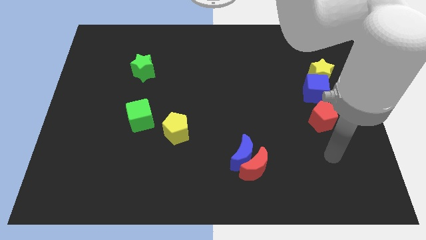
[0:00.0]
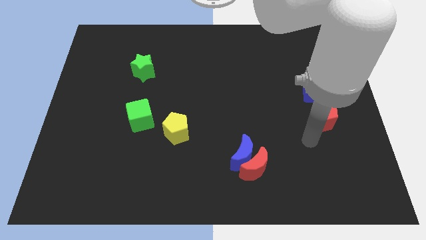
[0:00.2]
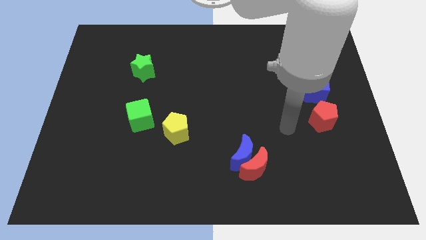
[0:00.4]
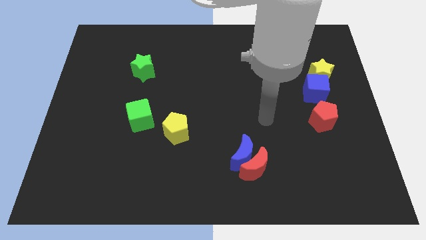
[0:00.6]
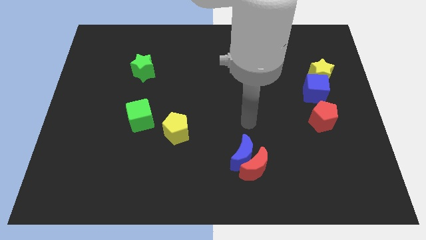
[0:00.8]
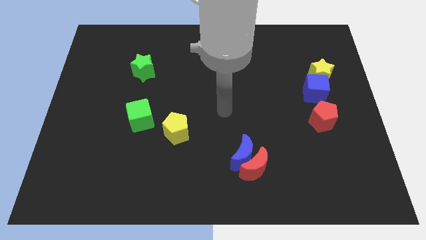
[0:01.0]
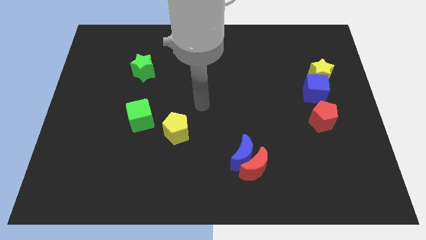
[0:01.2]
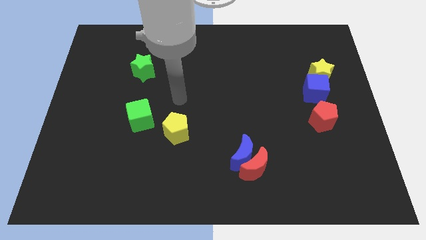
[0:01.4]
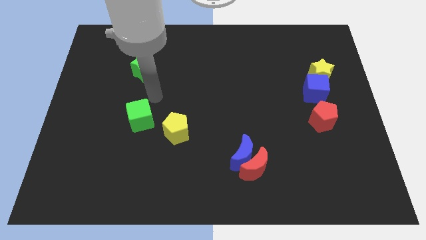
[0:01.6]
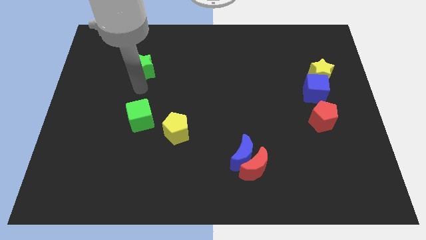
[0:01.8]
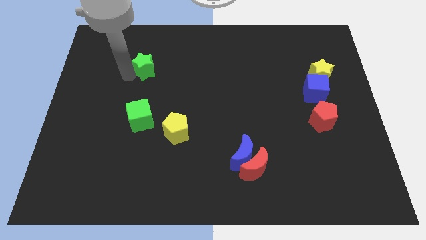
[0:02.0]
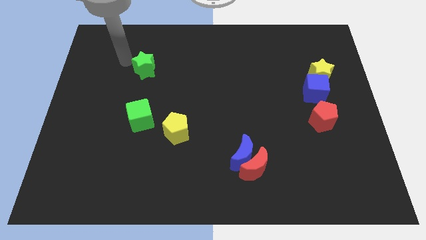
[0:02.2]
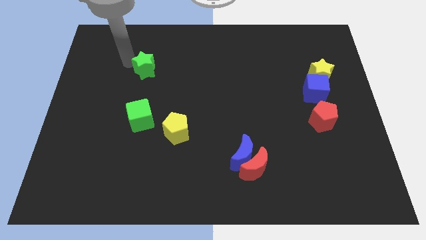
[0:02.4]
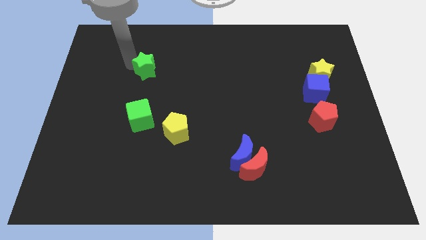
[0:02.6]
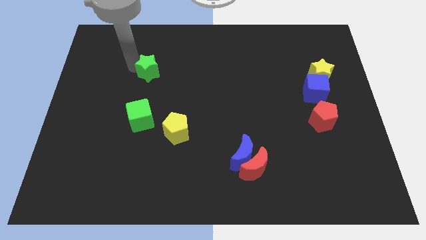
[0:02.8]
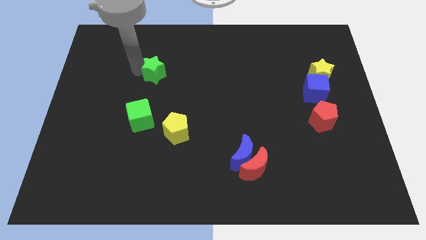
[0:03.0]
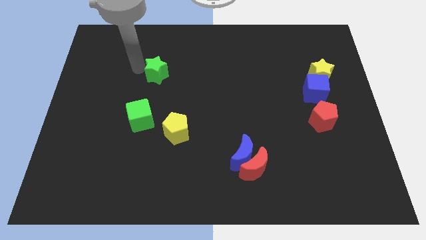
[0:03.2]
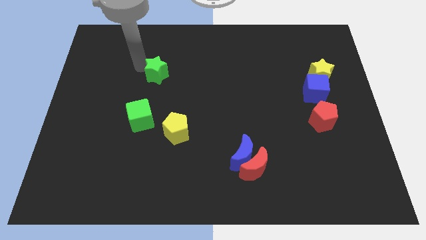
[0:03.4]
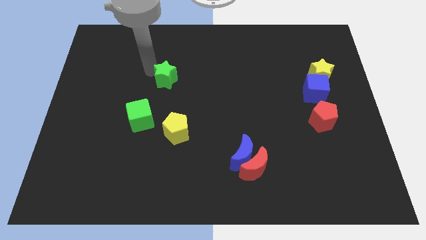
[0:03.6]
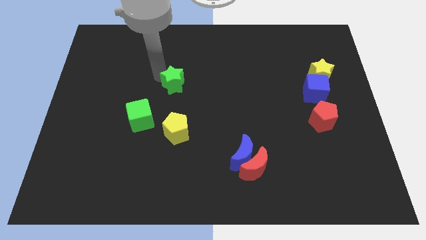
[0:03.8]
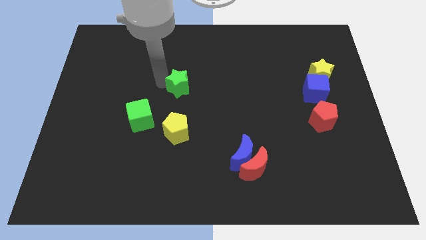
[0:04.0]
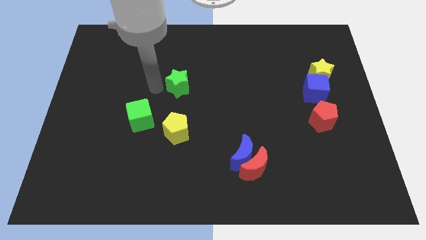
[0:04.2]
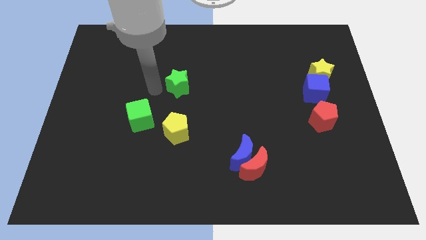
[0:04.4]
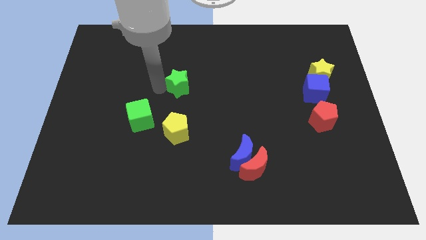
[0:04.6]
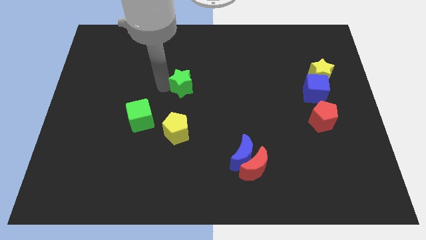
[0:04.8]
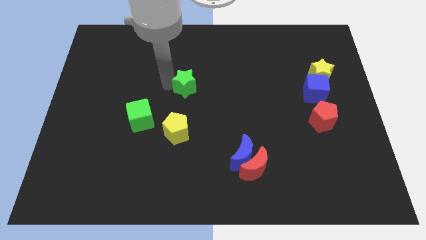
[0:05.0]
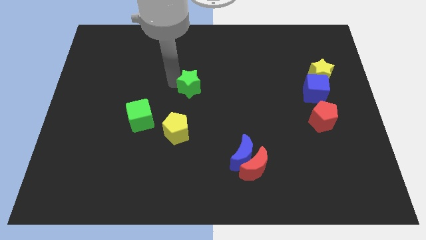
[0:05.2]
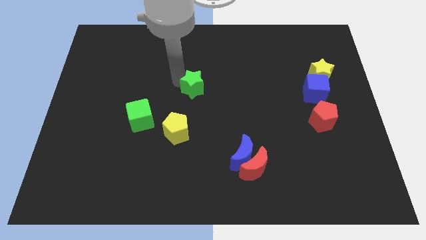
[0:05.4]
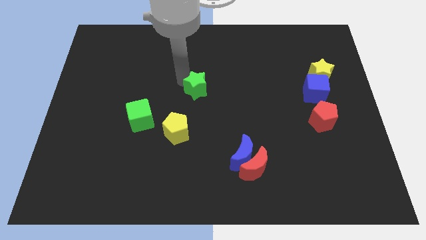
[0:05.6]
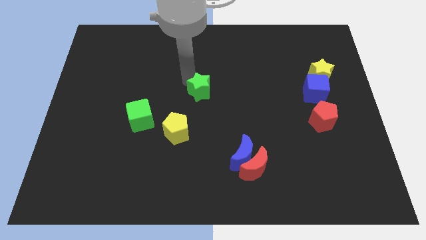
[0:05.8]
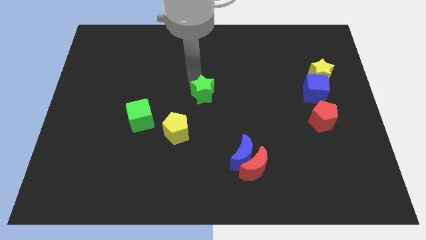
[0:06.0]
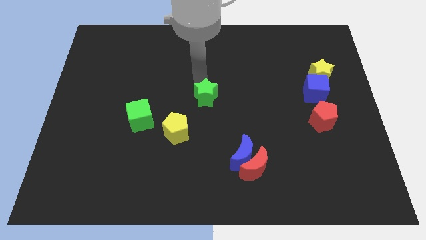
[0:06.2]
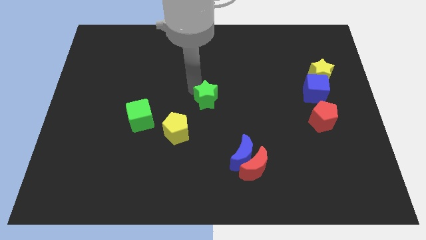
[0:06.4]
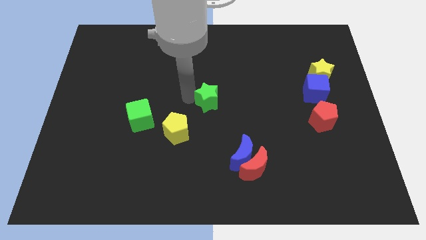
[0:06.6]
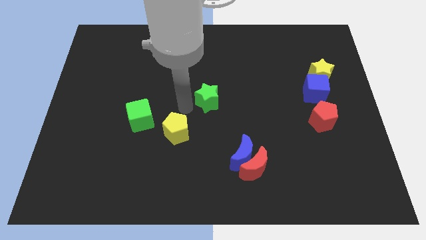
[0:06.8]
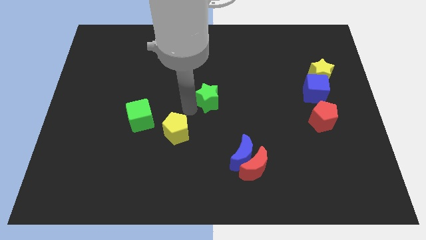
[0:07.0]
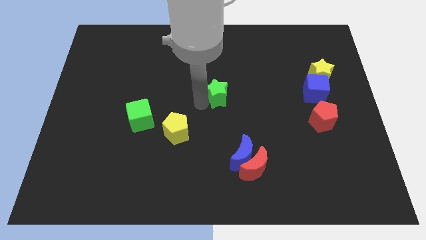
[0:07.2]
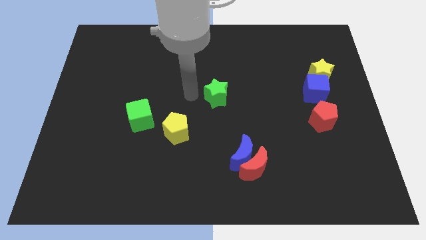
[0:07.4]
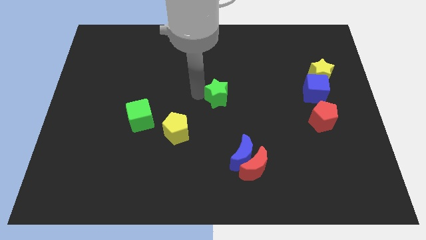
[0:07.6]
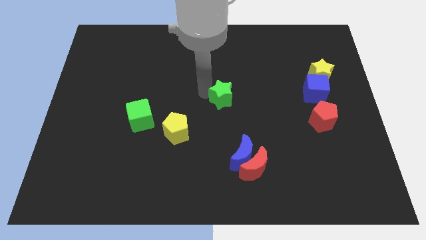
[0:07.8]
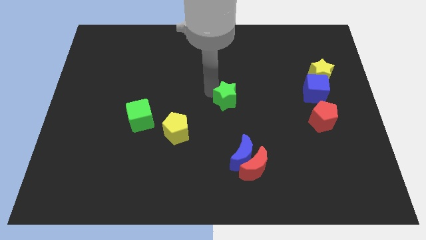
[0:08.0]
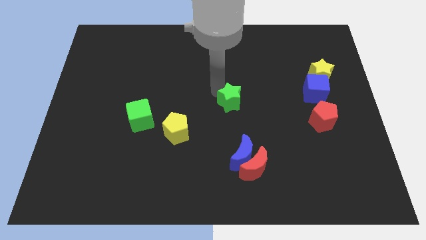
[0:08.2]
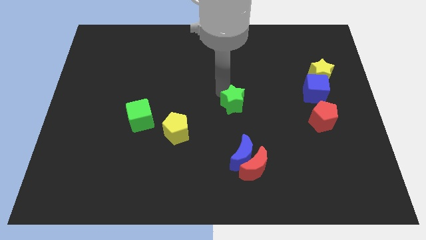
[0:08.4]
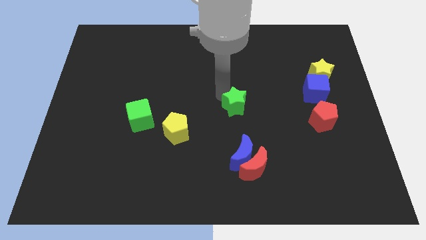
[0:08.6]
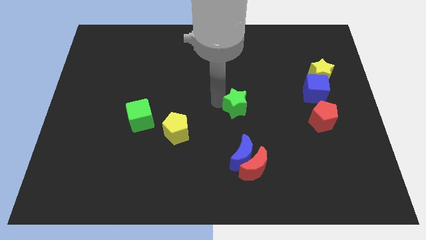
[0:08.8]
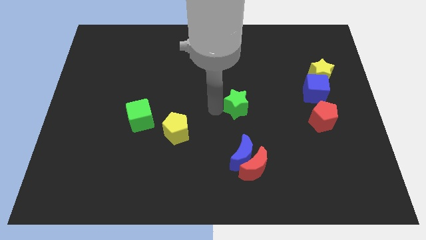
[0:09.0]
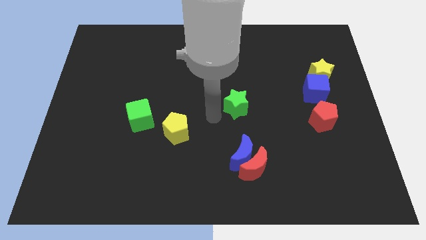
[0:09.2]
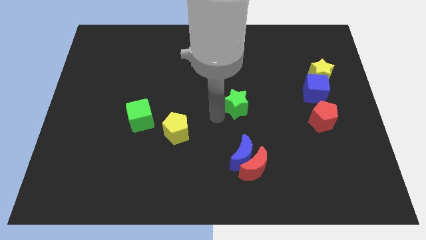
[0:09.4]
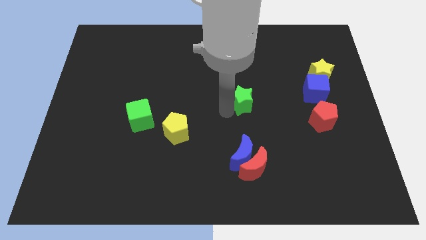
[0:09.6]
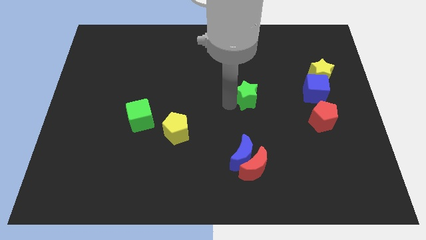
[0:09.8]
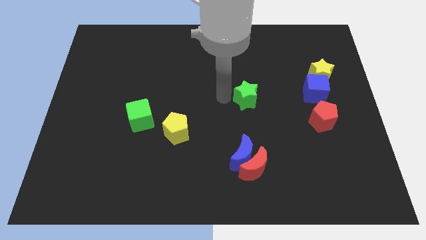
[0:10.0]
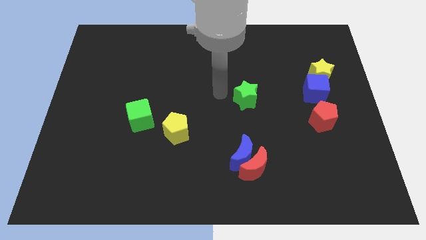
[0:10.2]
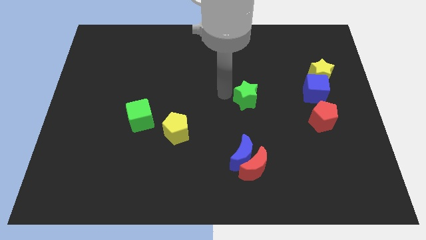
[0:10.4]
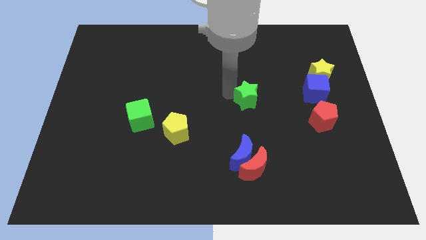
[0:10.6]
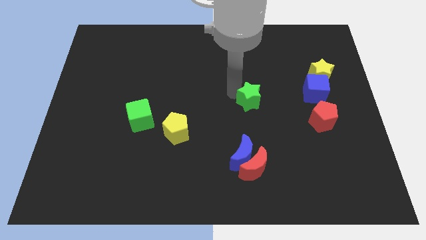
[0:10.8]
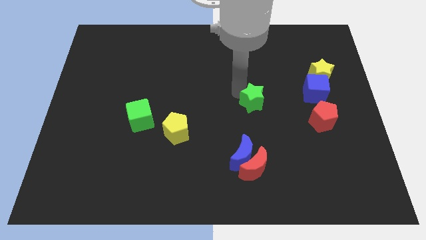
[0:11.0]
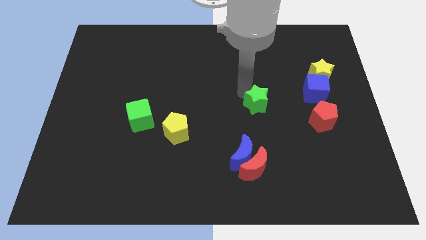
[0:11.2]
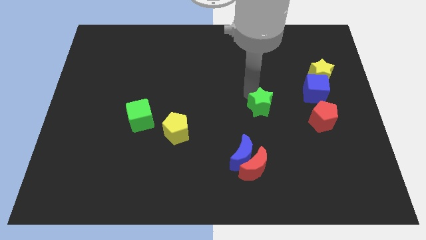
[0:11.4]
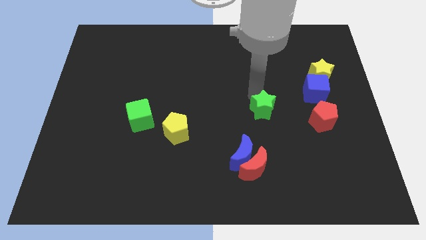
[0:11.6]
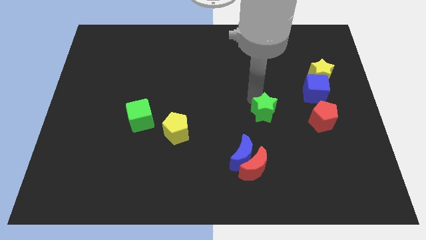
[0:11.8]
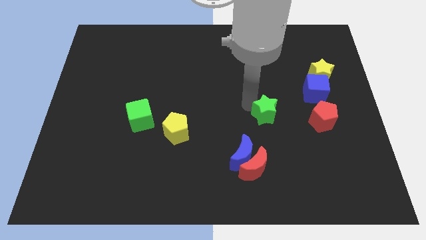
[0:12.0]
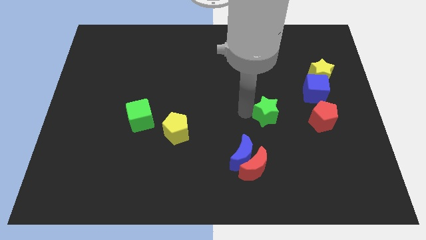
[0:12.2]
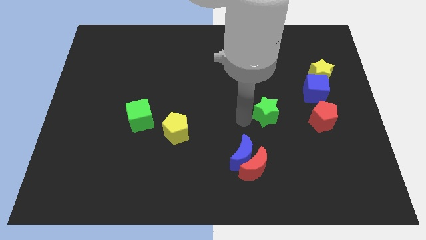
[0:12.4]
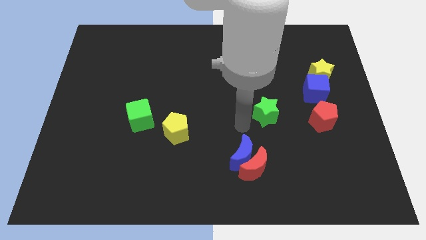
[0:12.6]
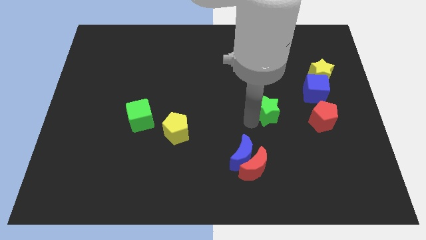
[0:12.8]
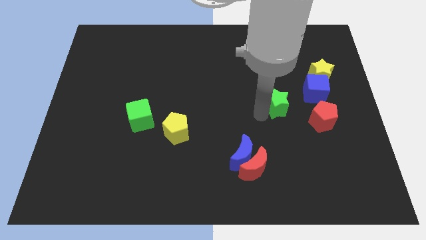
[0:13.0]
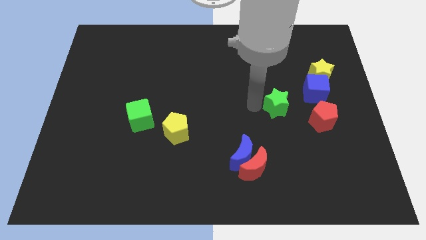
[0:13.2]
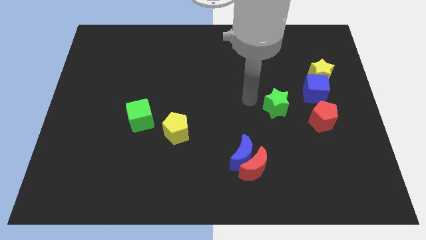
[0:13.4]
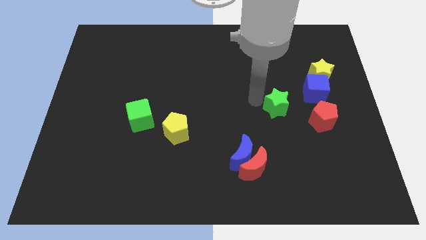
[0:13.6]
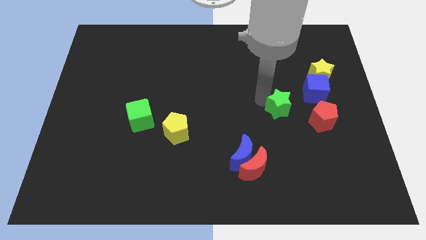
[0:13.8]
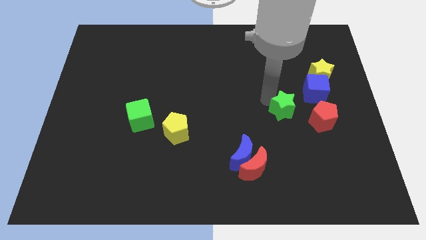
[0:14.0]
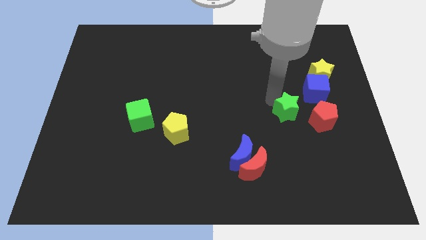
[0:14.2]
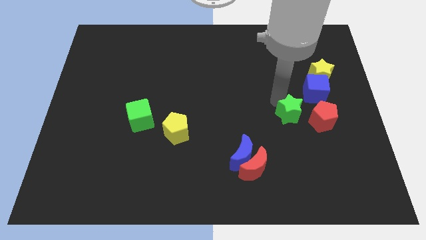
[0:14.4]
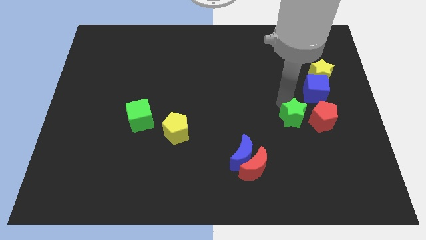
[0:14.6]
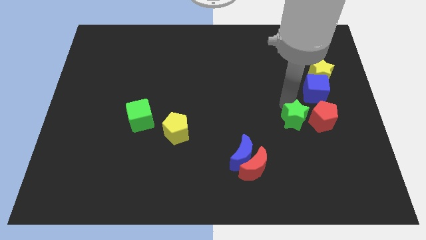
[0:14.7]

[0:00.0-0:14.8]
move the green star towards the red pentagon
